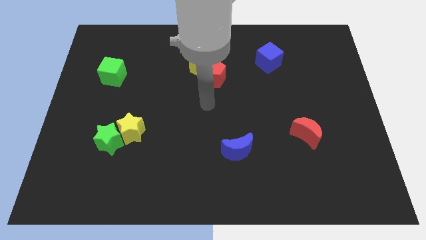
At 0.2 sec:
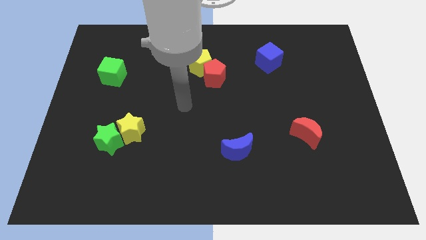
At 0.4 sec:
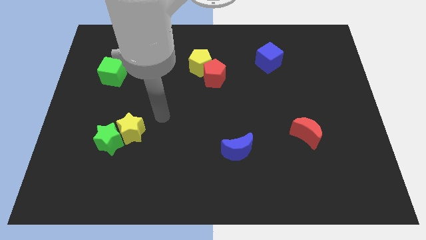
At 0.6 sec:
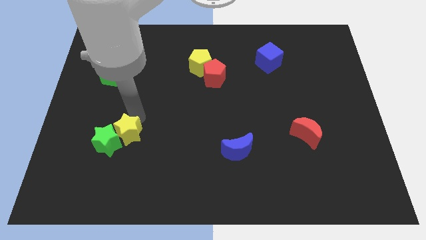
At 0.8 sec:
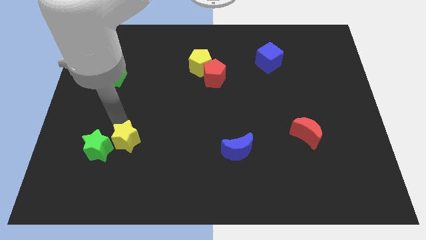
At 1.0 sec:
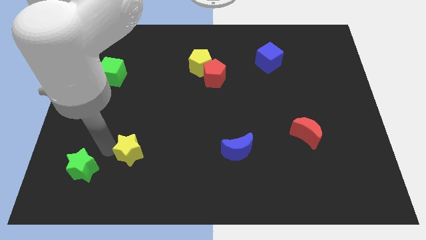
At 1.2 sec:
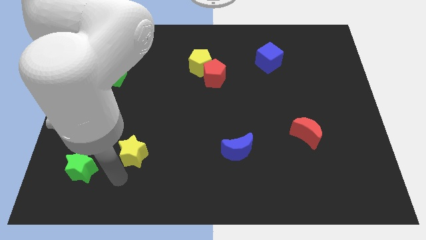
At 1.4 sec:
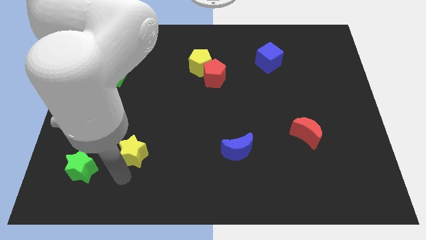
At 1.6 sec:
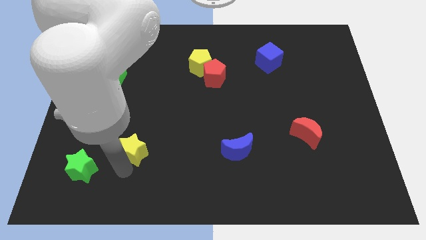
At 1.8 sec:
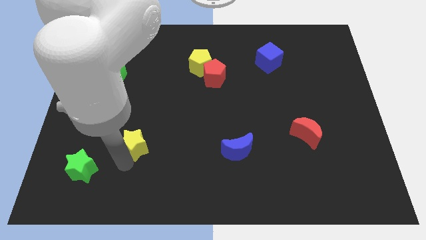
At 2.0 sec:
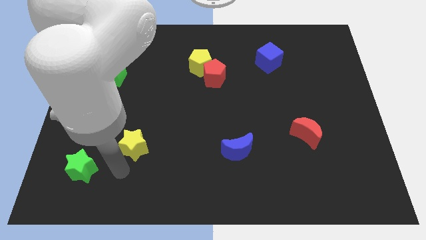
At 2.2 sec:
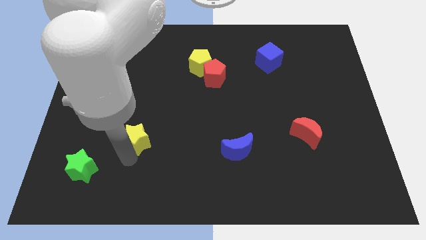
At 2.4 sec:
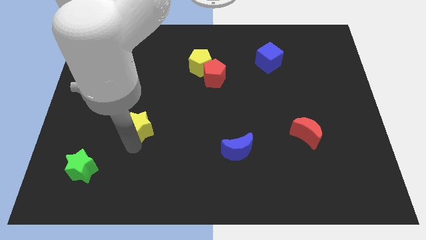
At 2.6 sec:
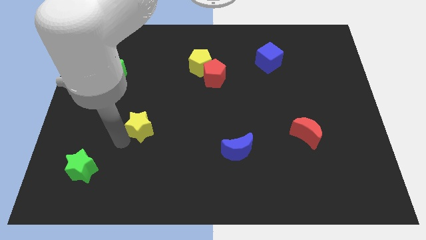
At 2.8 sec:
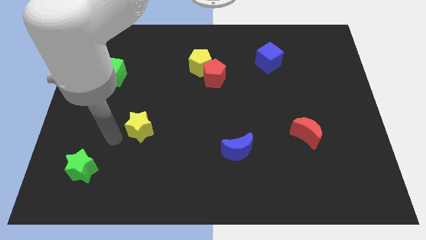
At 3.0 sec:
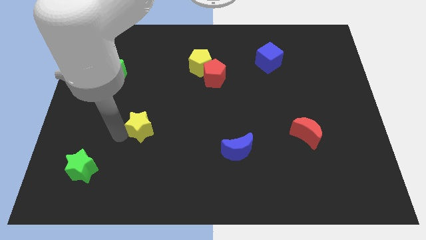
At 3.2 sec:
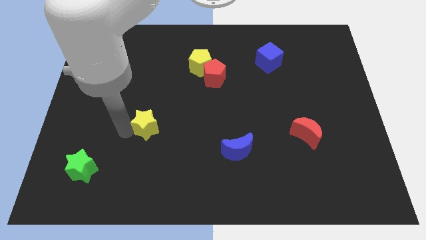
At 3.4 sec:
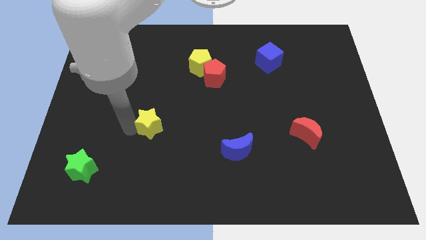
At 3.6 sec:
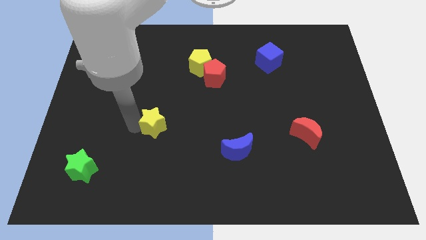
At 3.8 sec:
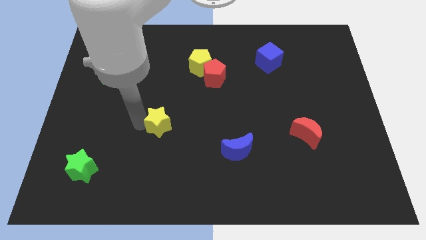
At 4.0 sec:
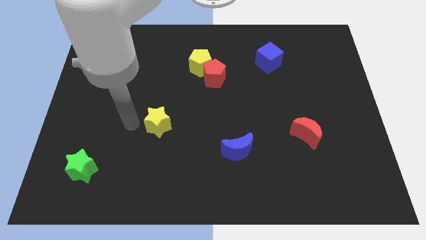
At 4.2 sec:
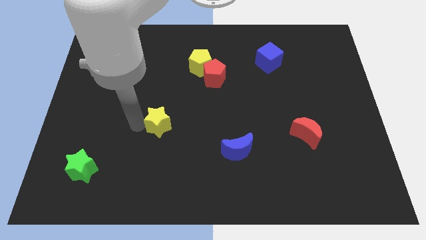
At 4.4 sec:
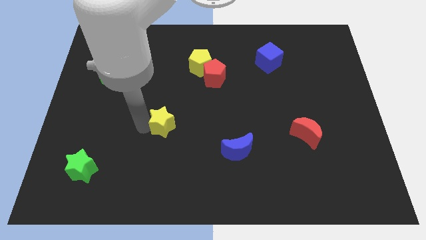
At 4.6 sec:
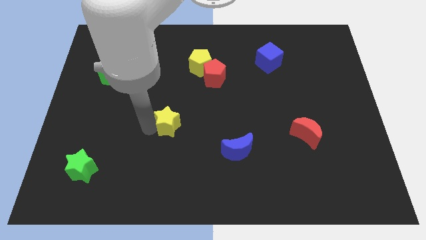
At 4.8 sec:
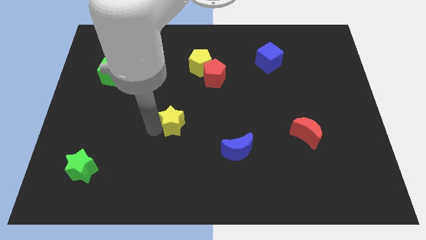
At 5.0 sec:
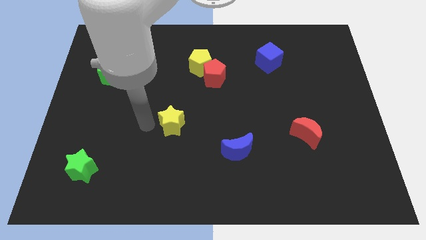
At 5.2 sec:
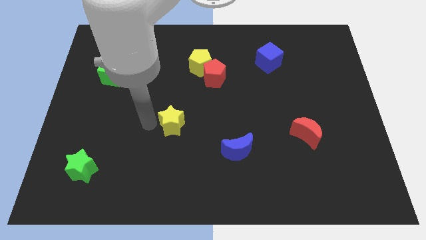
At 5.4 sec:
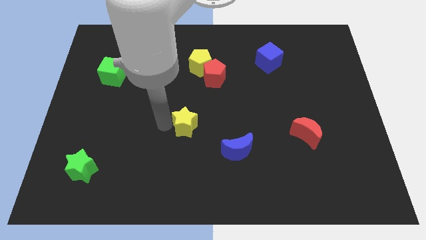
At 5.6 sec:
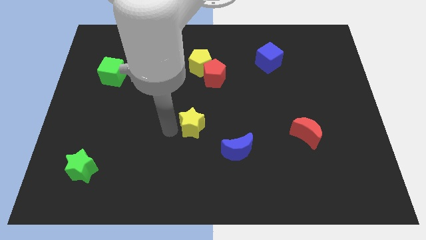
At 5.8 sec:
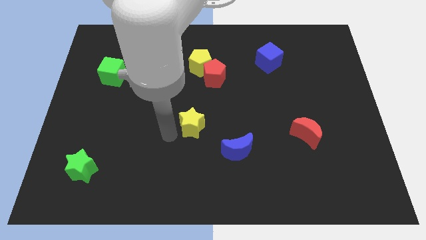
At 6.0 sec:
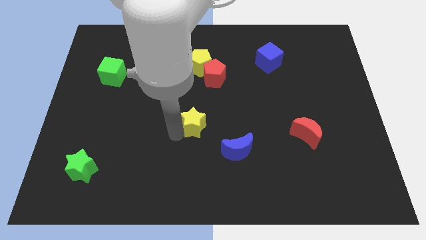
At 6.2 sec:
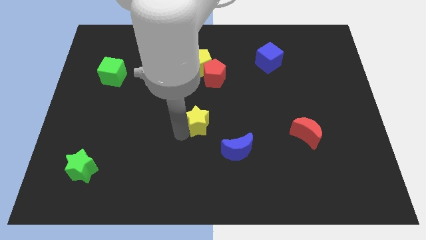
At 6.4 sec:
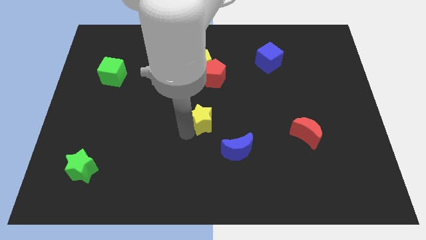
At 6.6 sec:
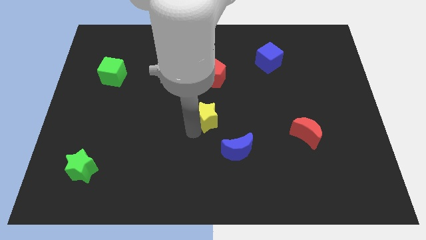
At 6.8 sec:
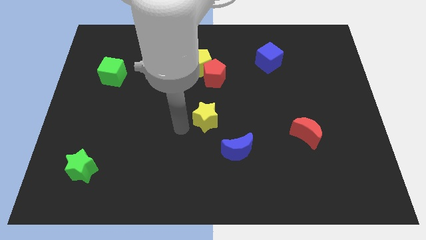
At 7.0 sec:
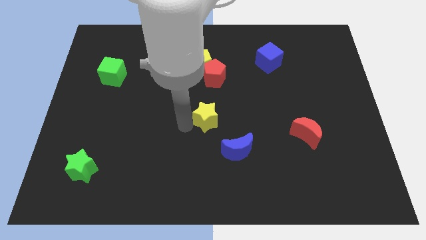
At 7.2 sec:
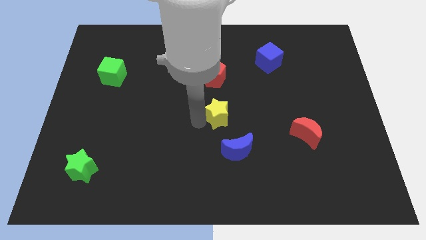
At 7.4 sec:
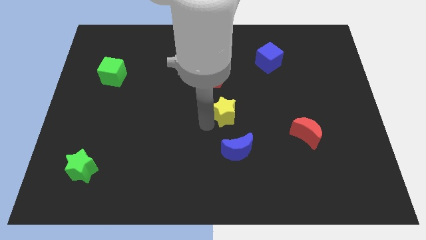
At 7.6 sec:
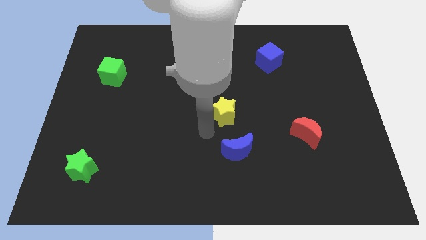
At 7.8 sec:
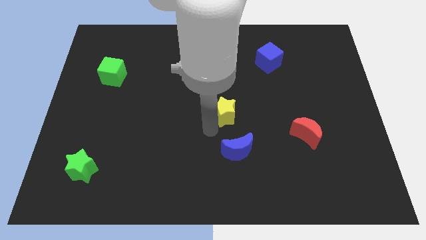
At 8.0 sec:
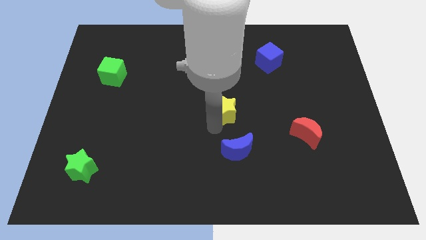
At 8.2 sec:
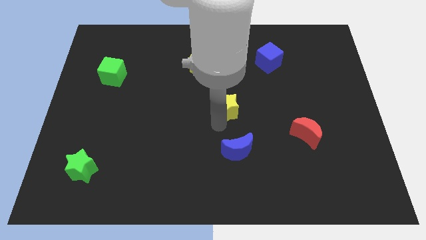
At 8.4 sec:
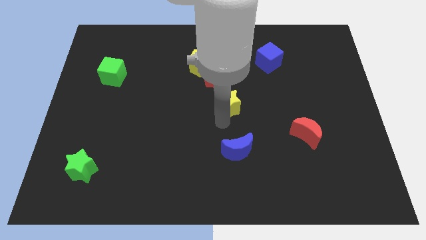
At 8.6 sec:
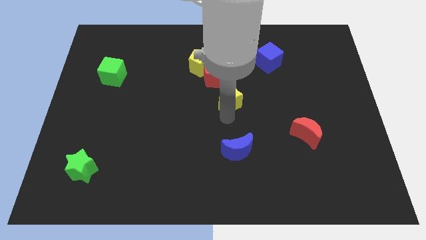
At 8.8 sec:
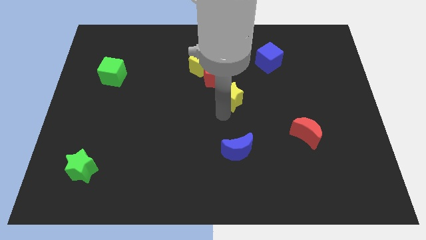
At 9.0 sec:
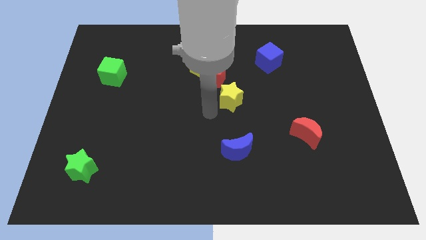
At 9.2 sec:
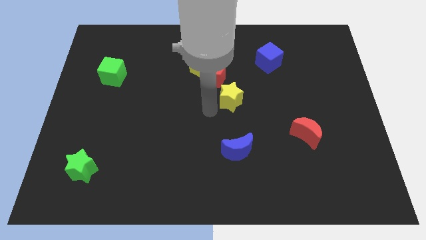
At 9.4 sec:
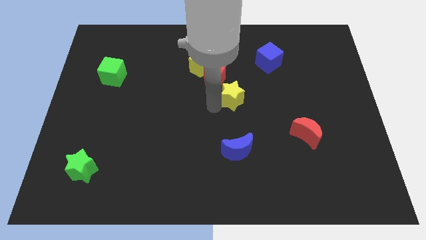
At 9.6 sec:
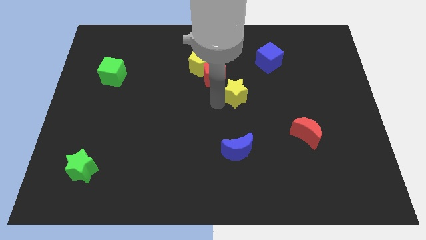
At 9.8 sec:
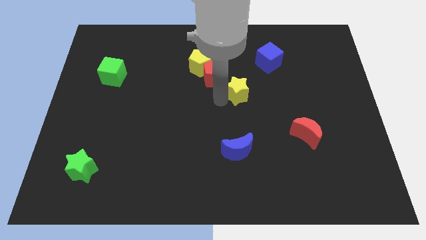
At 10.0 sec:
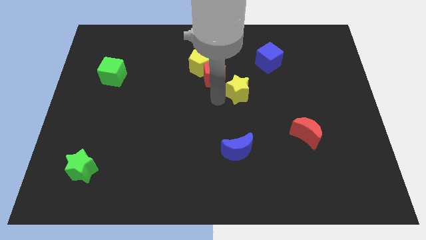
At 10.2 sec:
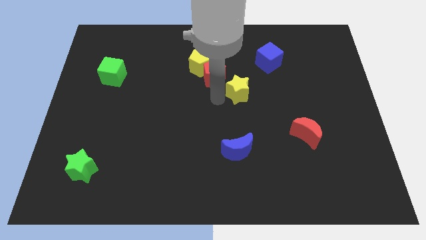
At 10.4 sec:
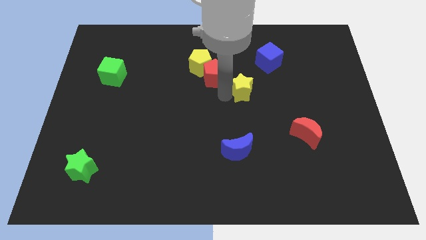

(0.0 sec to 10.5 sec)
slide the yellow star to the bottom left side of the blue cube

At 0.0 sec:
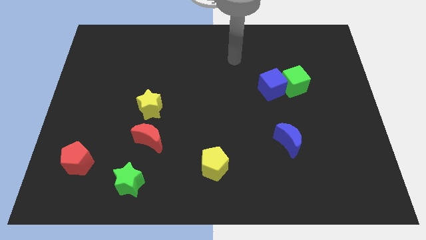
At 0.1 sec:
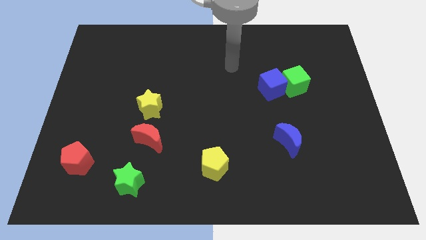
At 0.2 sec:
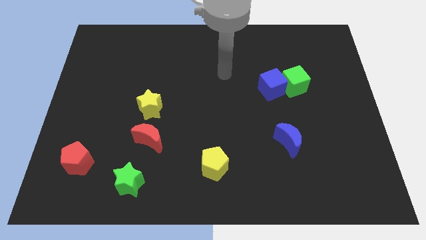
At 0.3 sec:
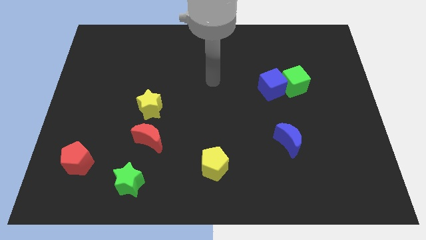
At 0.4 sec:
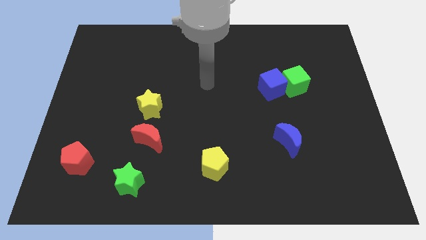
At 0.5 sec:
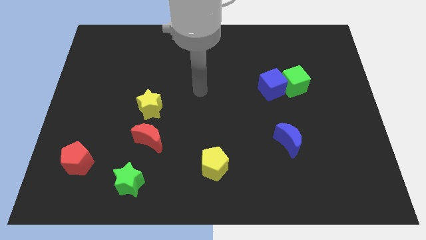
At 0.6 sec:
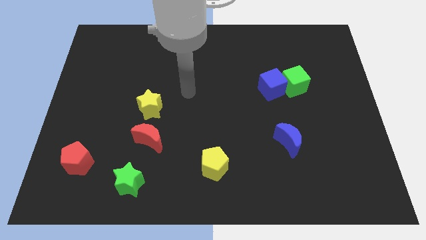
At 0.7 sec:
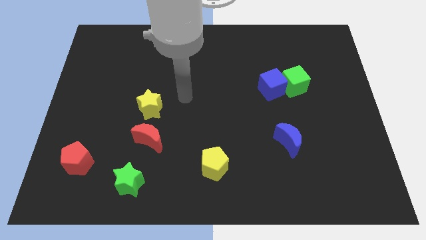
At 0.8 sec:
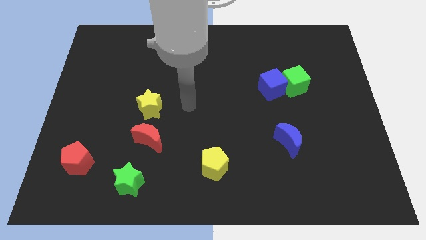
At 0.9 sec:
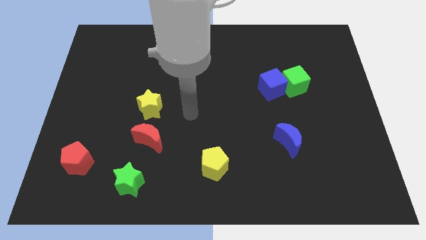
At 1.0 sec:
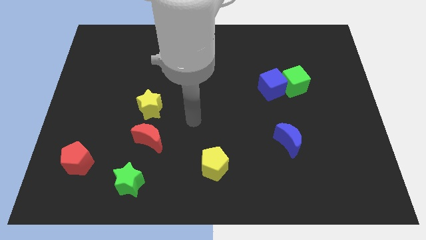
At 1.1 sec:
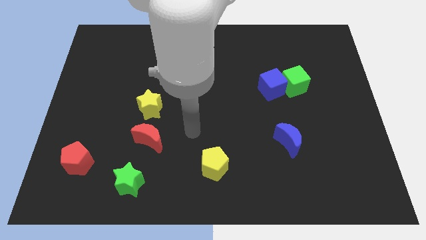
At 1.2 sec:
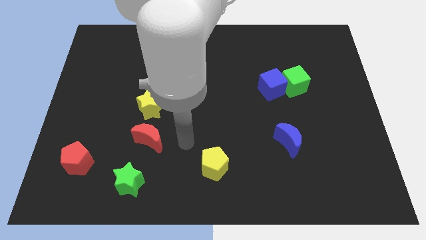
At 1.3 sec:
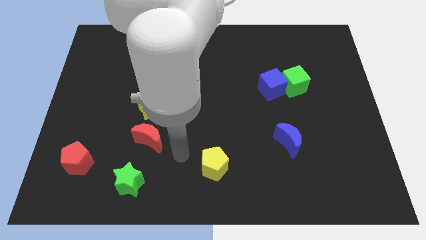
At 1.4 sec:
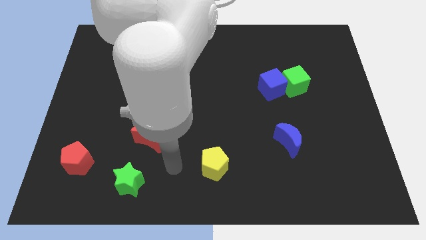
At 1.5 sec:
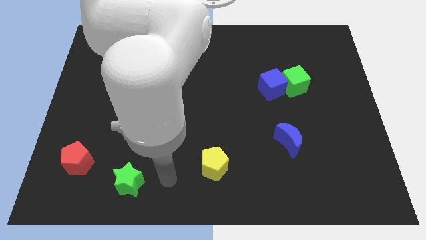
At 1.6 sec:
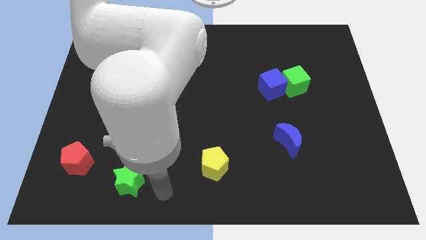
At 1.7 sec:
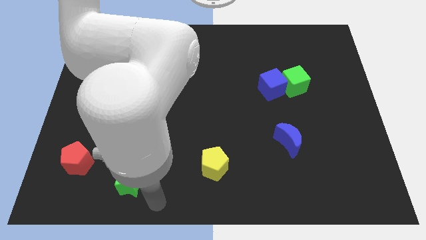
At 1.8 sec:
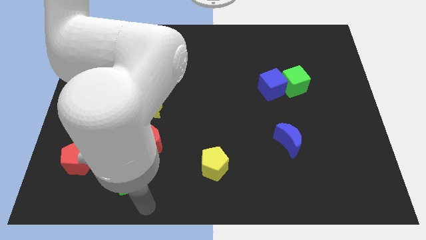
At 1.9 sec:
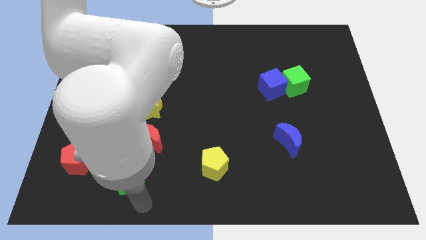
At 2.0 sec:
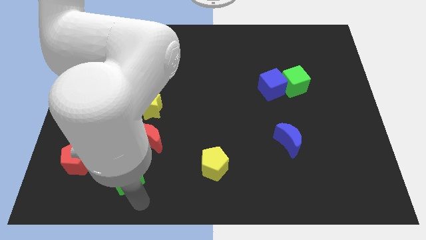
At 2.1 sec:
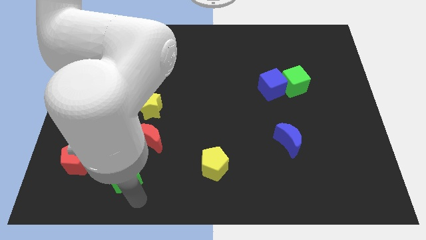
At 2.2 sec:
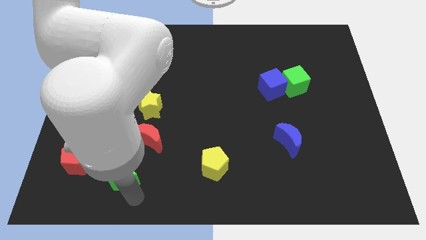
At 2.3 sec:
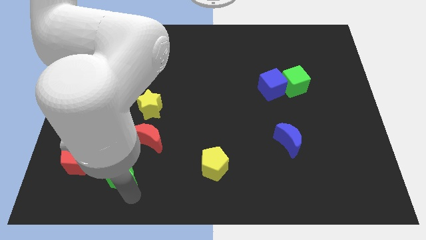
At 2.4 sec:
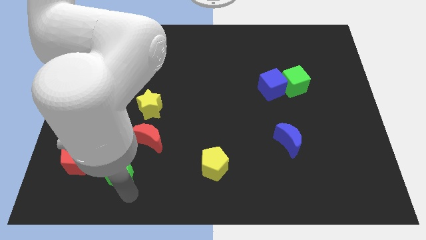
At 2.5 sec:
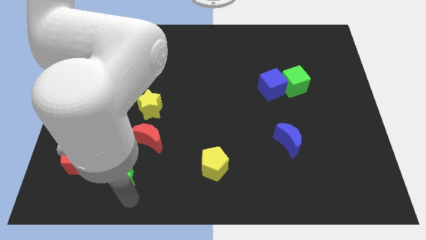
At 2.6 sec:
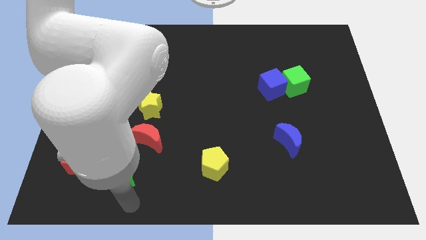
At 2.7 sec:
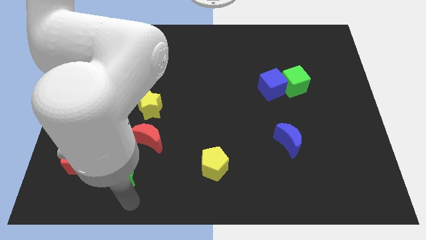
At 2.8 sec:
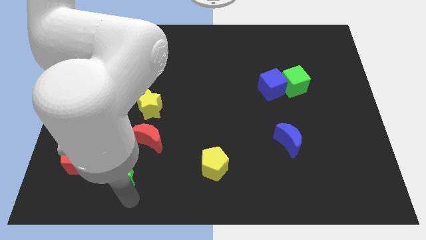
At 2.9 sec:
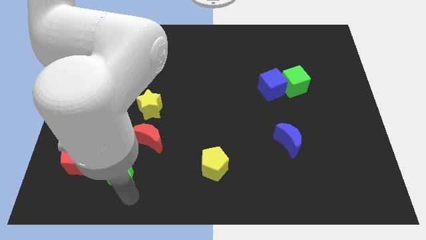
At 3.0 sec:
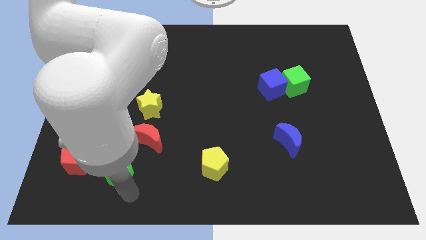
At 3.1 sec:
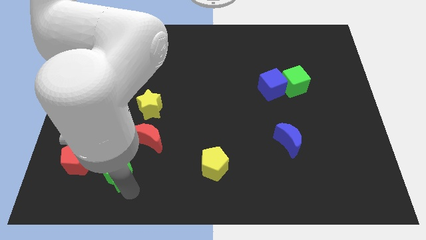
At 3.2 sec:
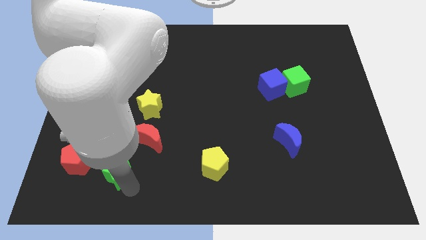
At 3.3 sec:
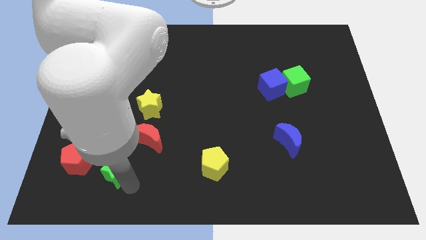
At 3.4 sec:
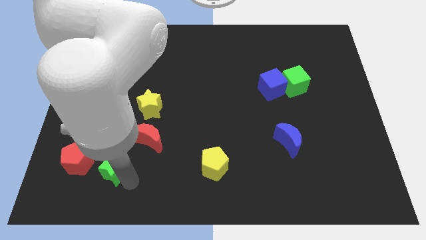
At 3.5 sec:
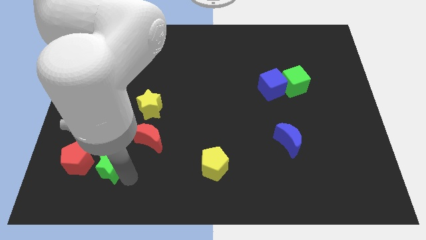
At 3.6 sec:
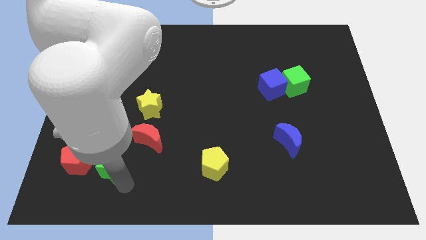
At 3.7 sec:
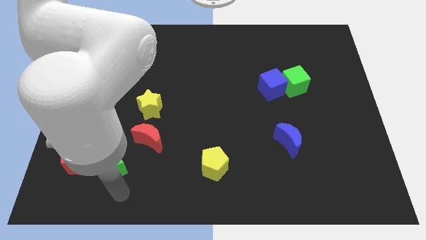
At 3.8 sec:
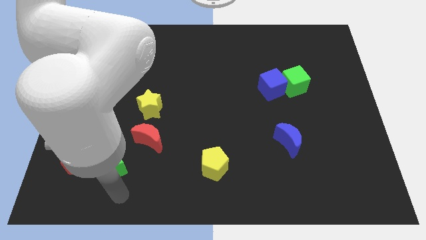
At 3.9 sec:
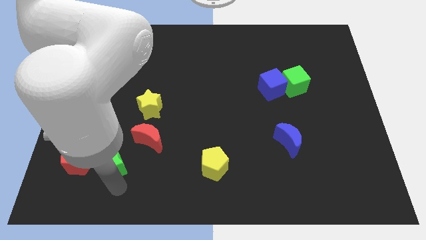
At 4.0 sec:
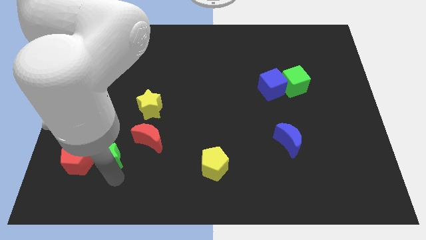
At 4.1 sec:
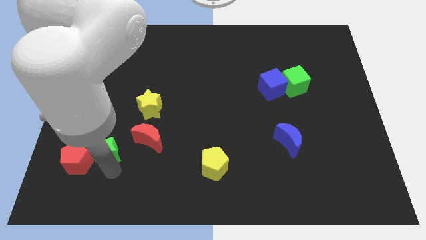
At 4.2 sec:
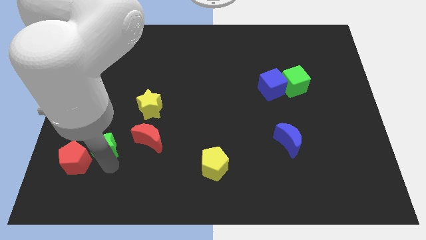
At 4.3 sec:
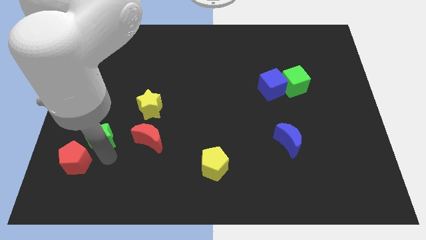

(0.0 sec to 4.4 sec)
slide the green star to the top of the red pentagon
